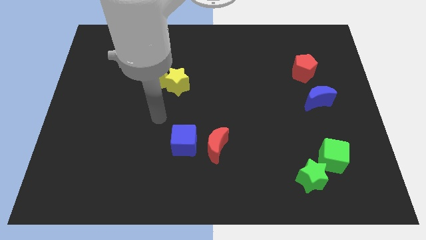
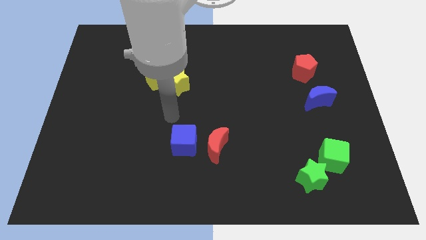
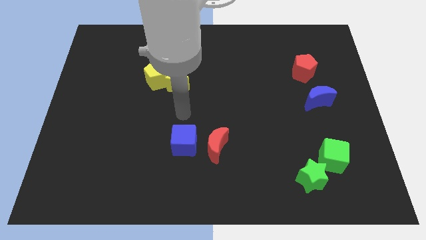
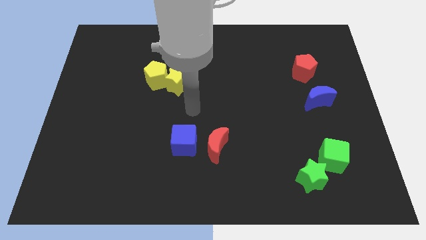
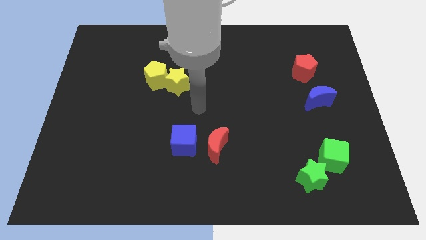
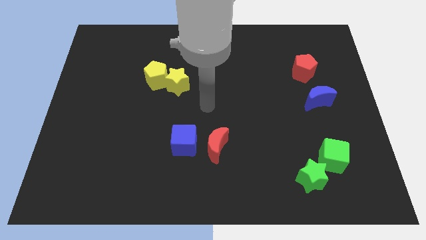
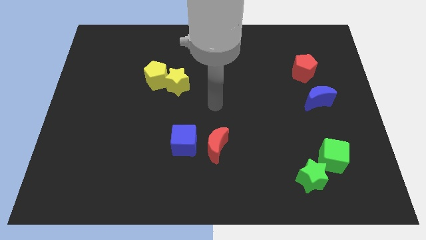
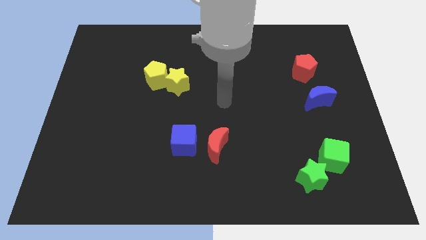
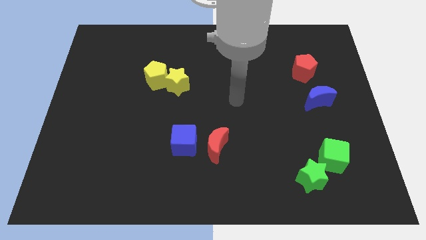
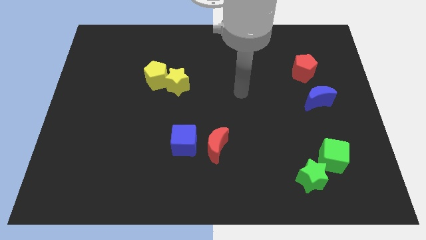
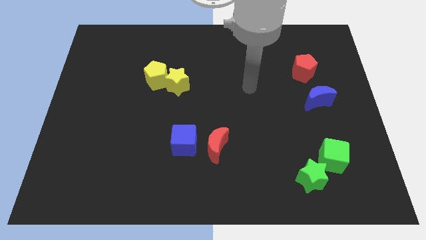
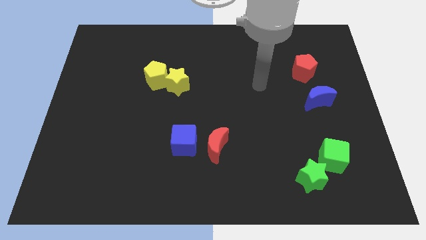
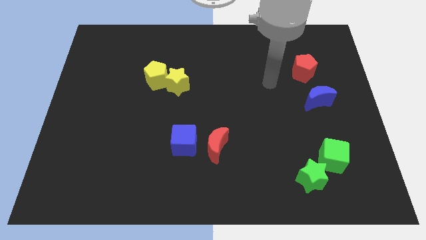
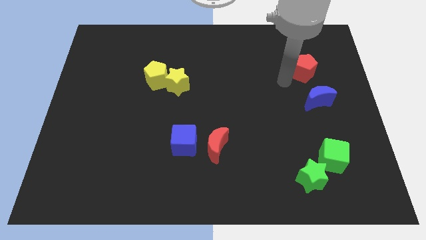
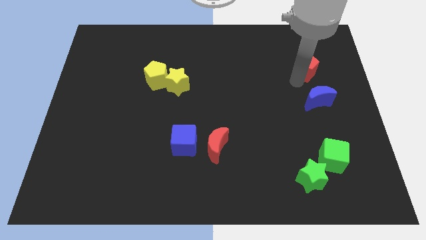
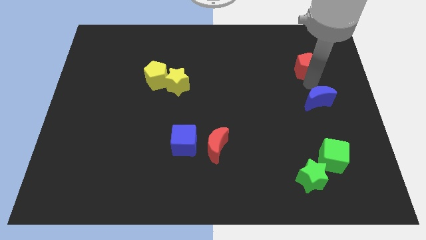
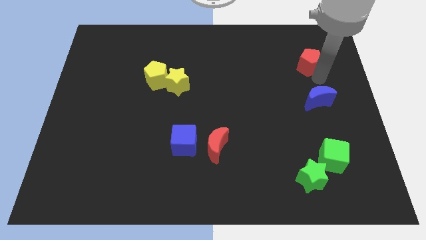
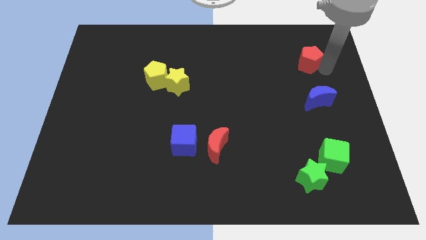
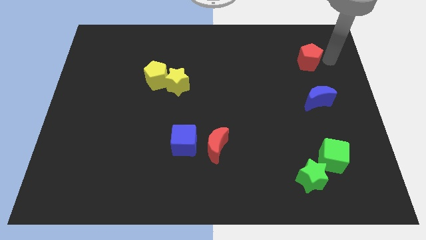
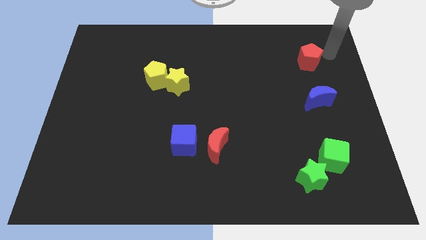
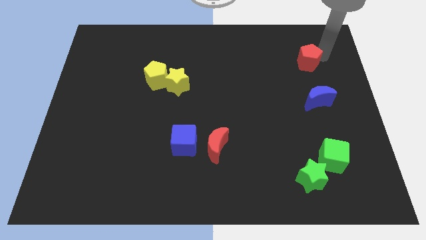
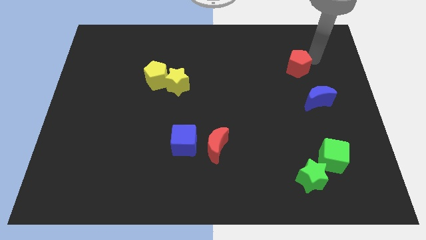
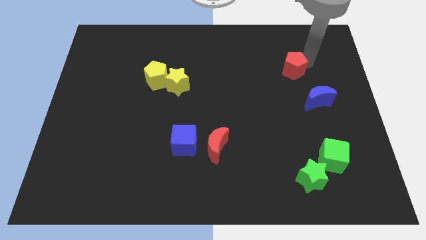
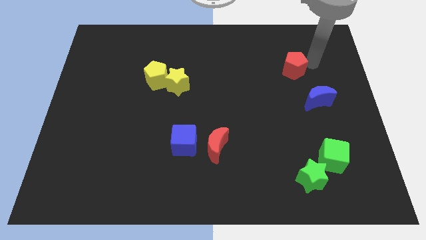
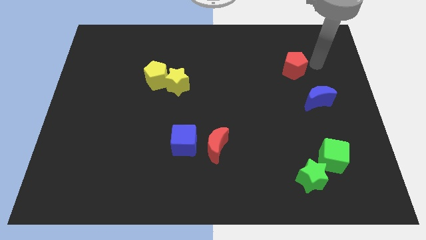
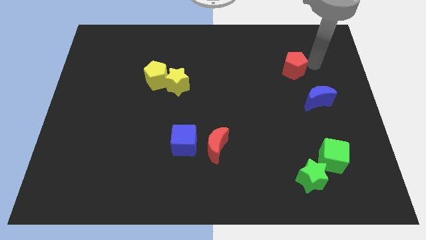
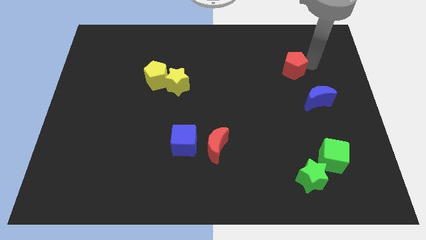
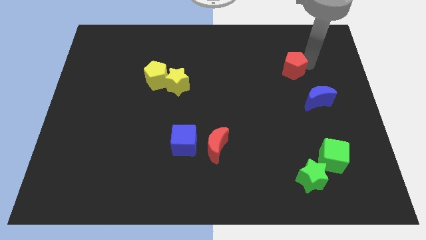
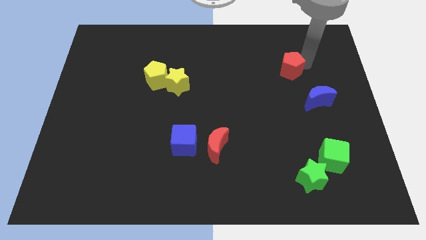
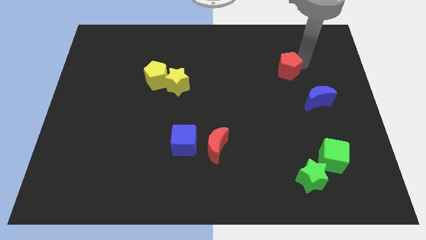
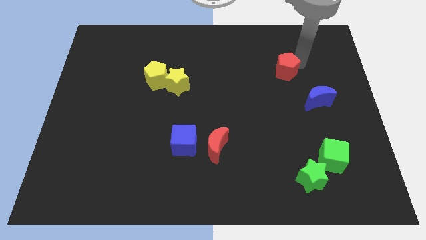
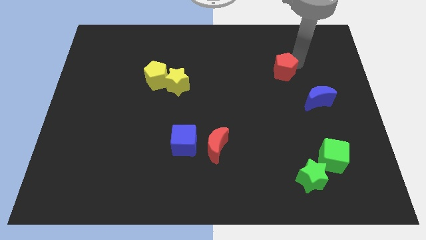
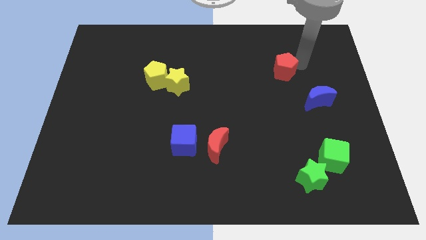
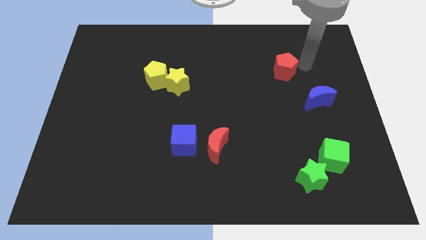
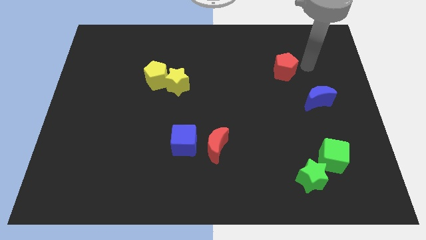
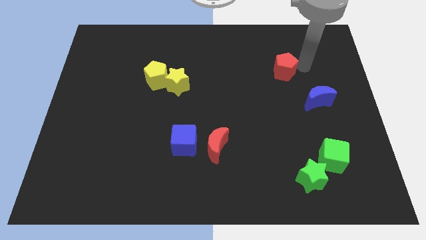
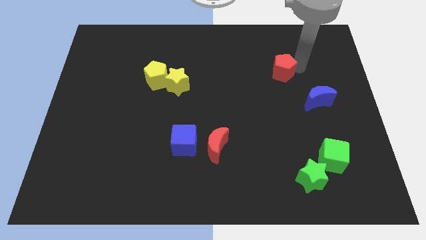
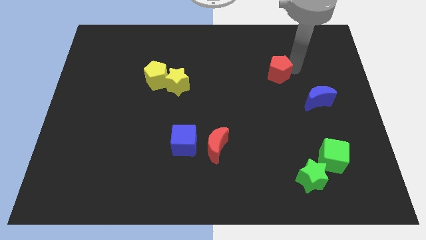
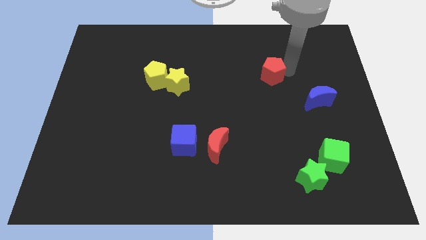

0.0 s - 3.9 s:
push the red pentagon left slightly

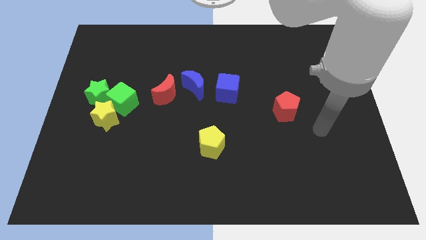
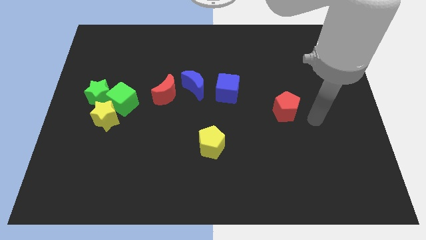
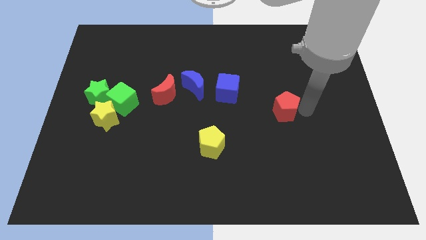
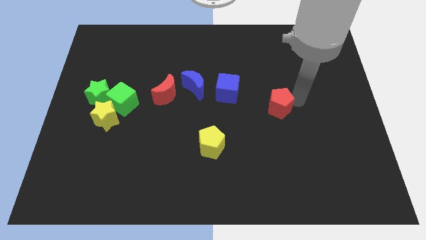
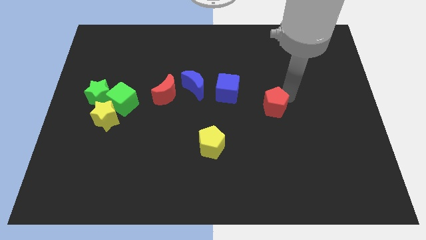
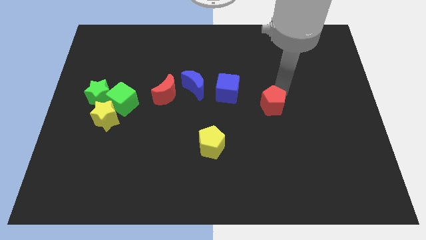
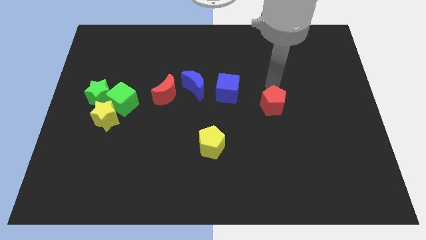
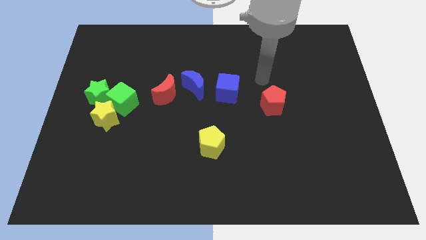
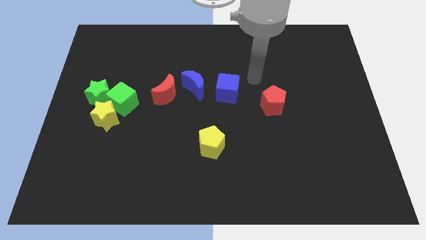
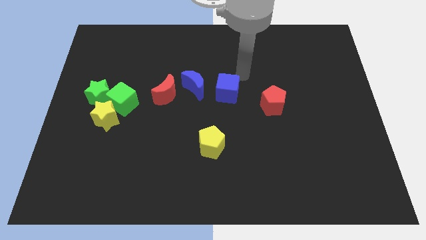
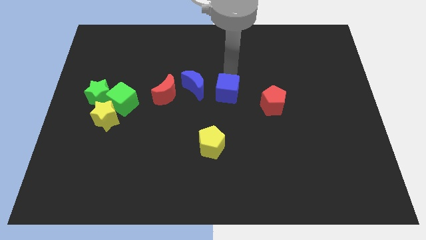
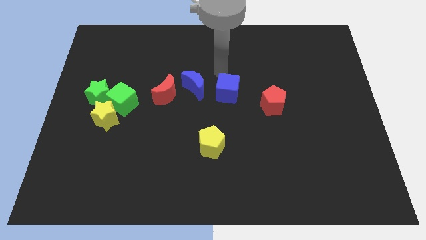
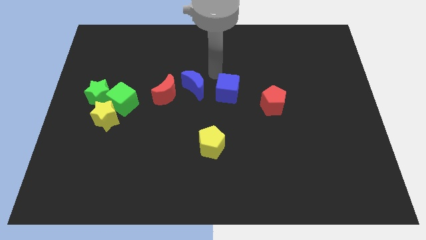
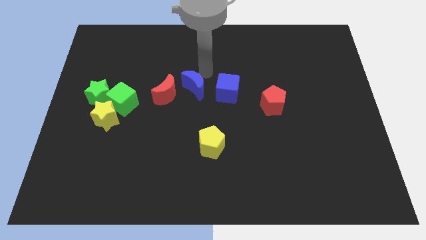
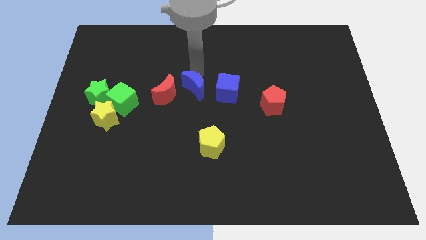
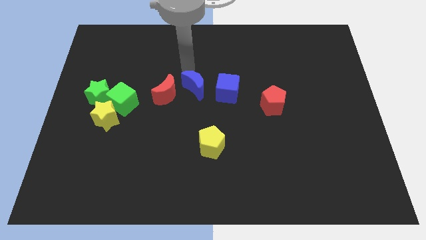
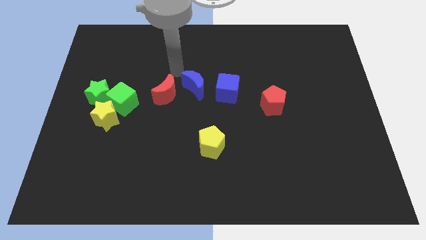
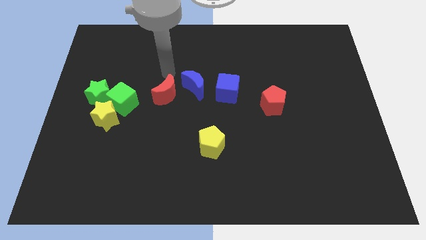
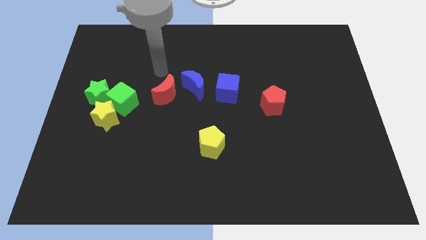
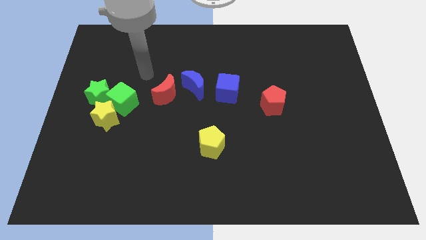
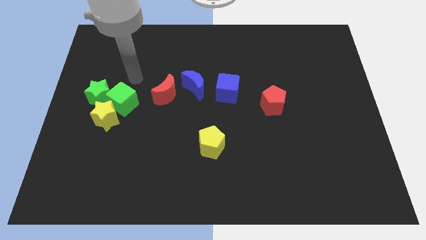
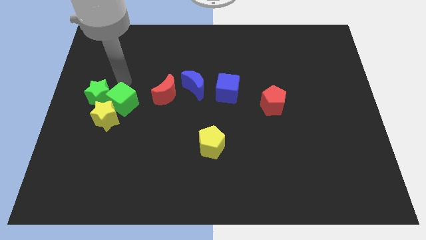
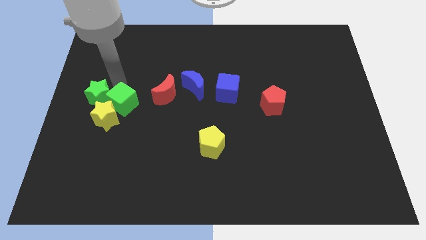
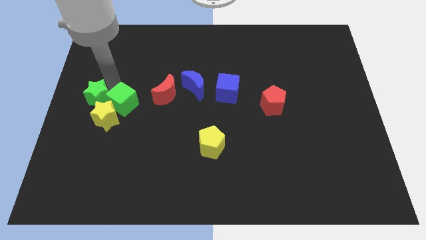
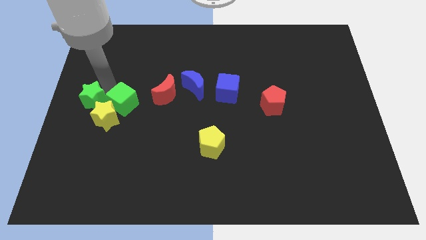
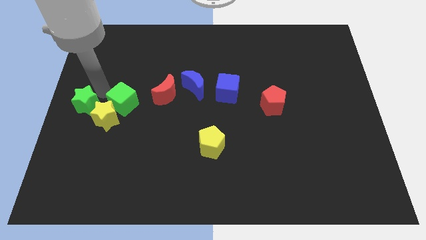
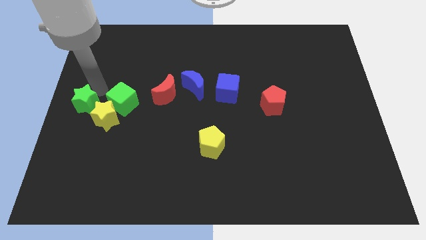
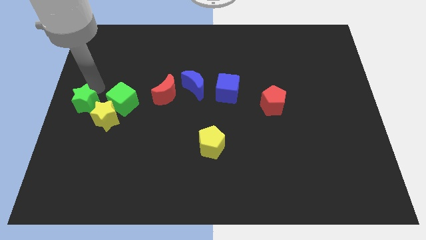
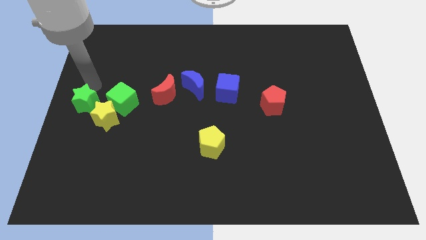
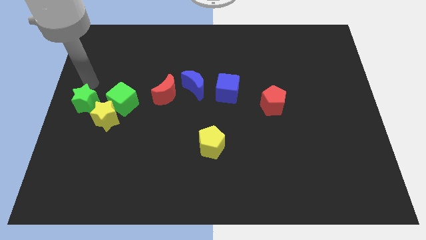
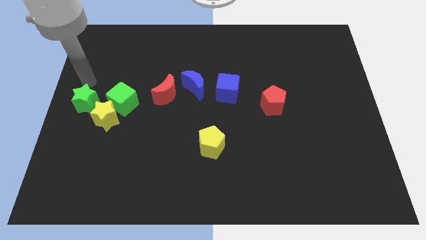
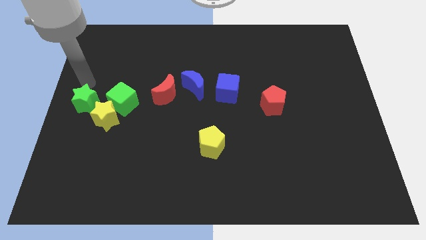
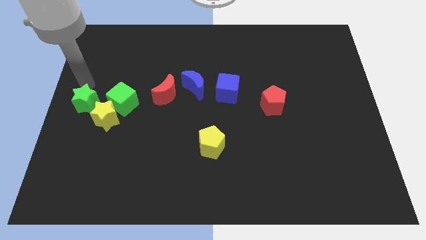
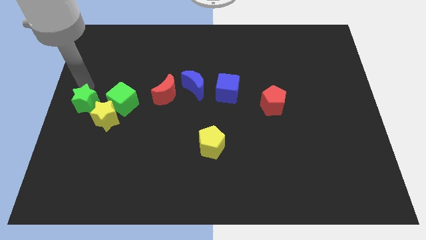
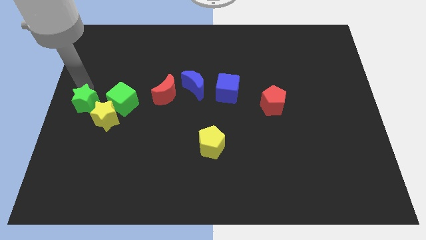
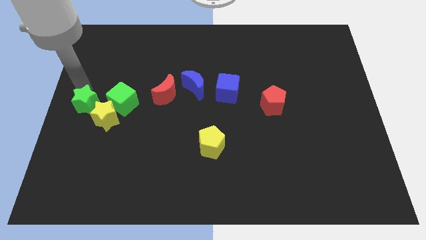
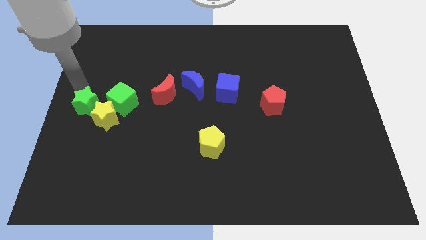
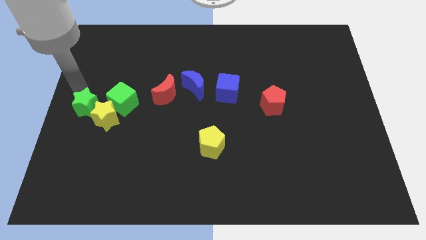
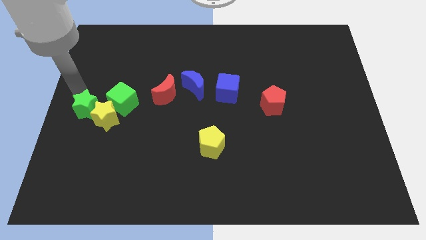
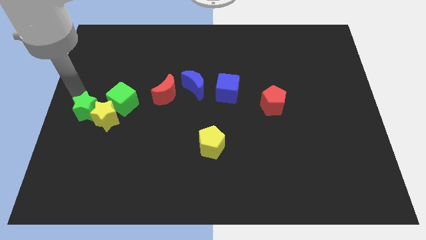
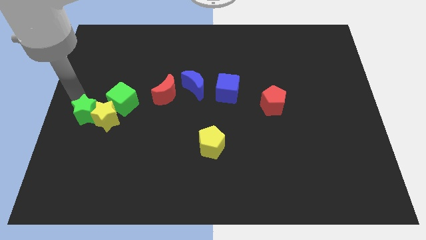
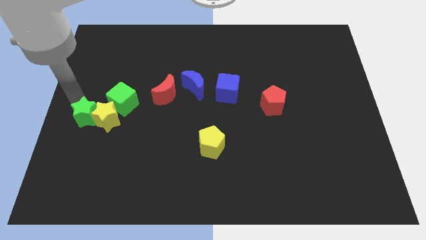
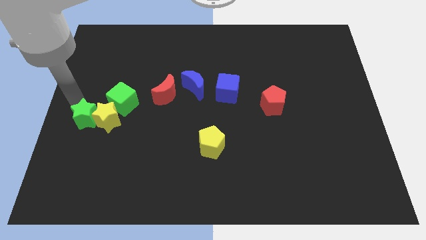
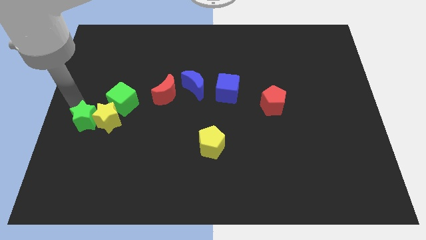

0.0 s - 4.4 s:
move the green star a little bit down
